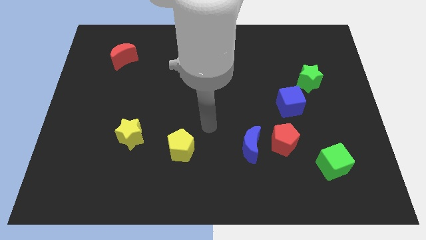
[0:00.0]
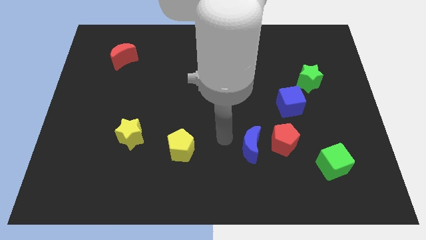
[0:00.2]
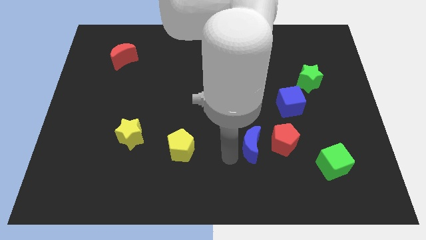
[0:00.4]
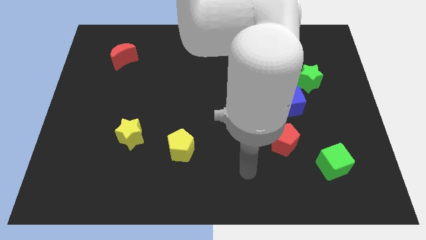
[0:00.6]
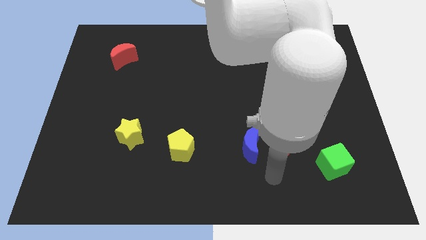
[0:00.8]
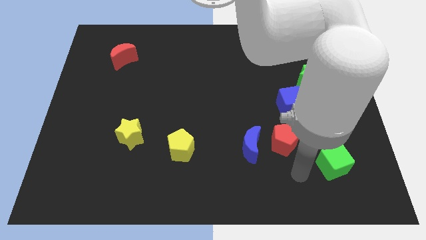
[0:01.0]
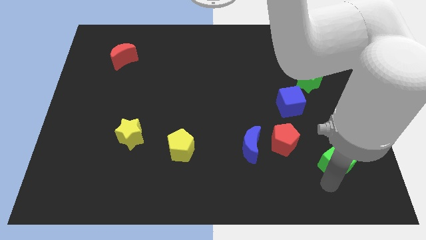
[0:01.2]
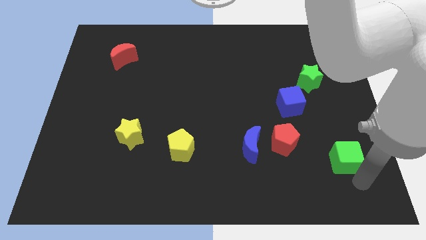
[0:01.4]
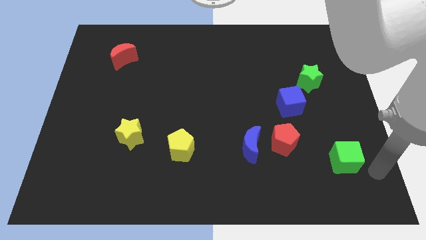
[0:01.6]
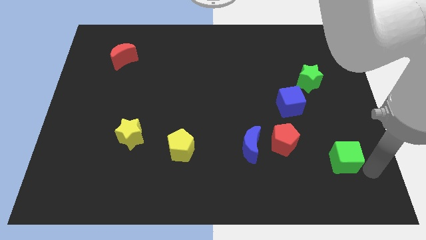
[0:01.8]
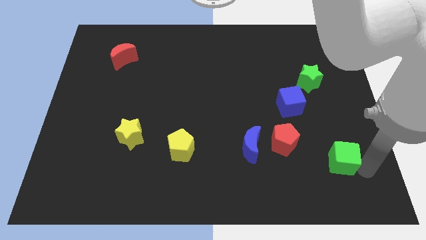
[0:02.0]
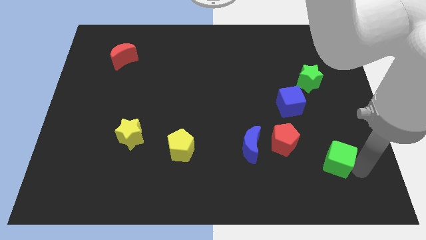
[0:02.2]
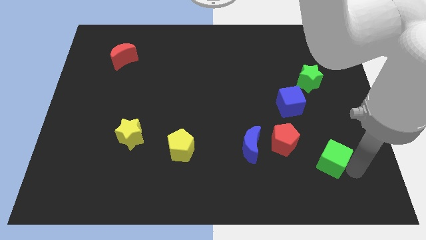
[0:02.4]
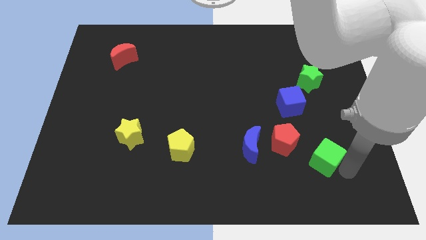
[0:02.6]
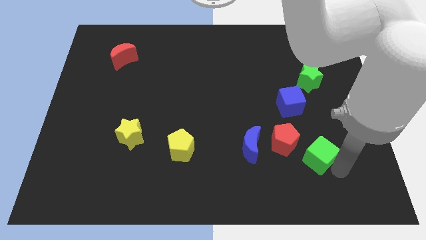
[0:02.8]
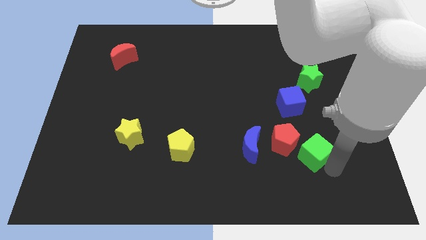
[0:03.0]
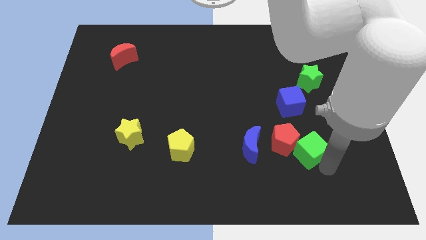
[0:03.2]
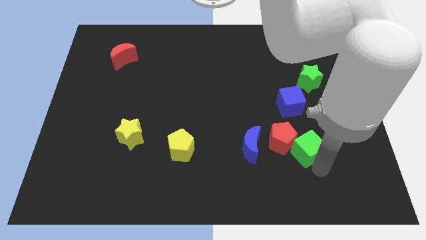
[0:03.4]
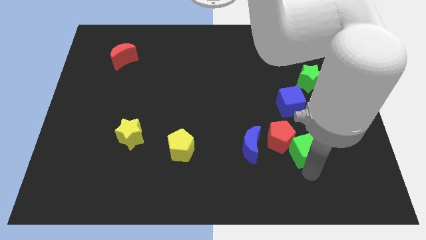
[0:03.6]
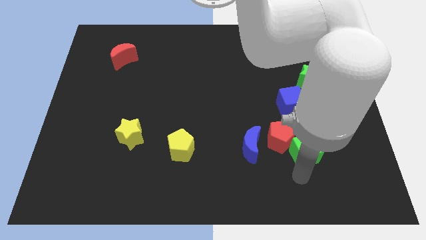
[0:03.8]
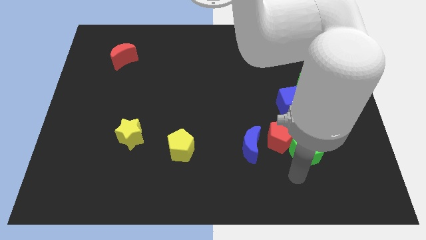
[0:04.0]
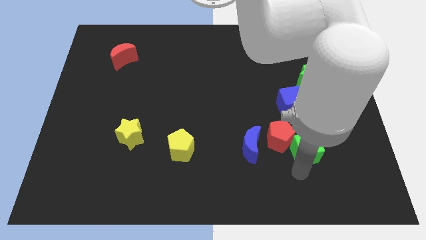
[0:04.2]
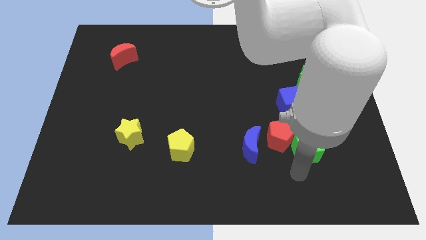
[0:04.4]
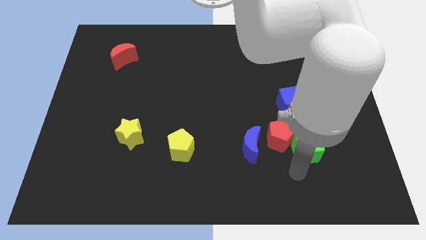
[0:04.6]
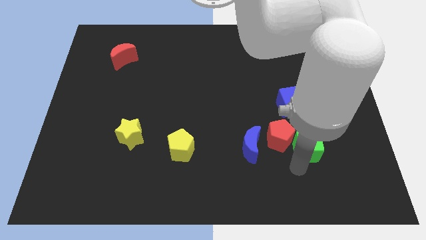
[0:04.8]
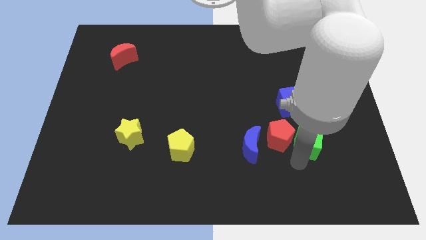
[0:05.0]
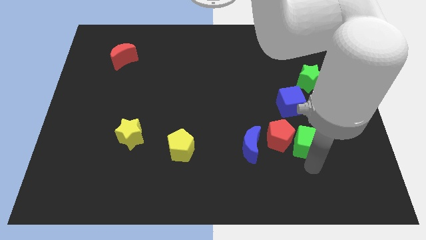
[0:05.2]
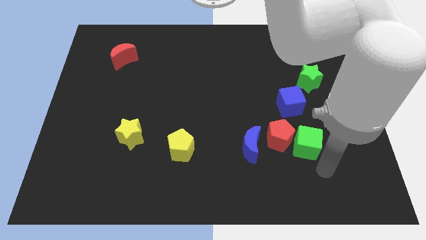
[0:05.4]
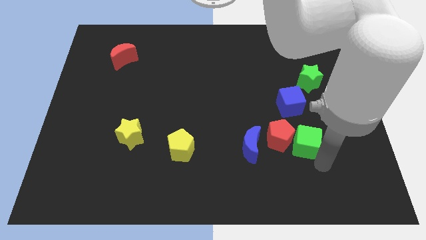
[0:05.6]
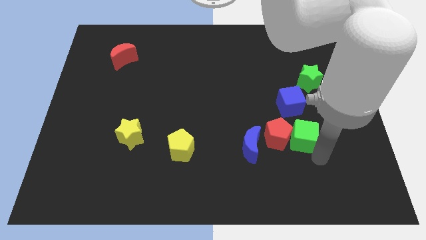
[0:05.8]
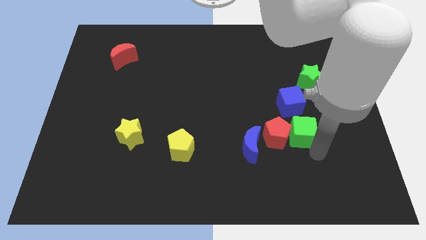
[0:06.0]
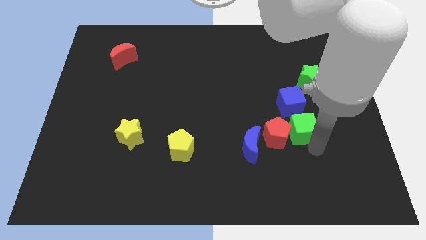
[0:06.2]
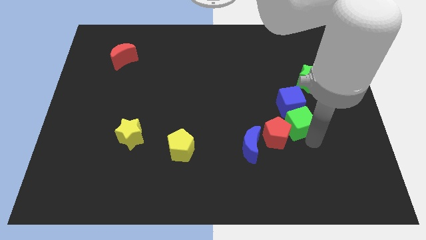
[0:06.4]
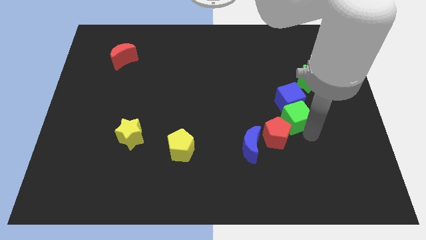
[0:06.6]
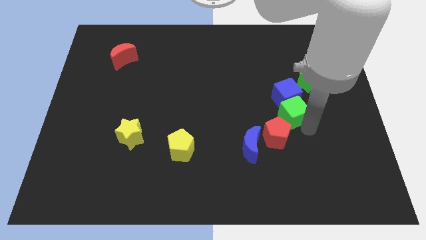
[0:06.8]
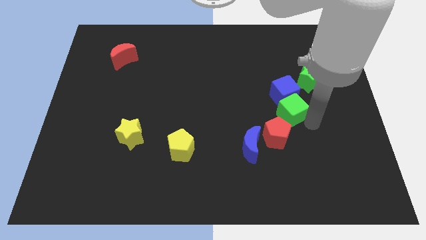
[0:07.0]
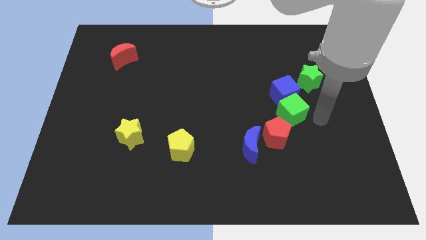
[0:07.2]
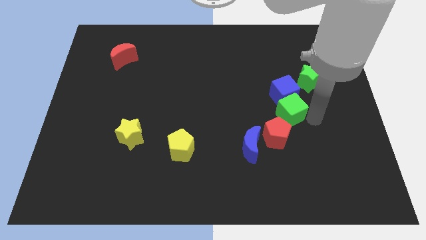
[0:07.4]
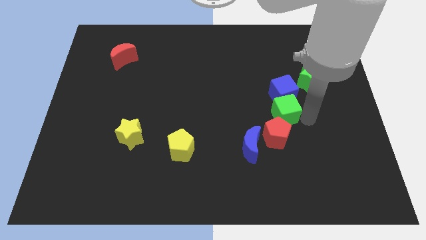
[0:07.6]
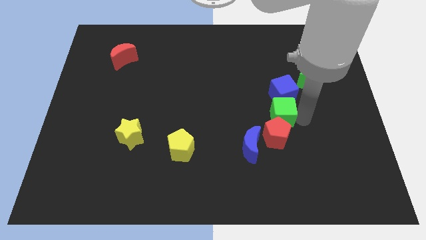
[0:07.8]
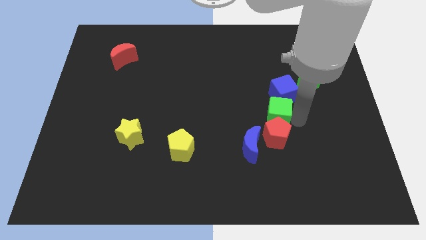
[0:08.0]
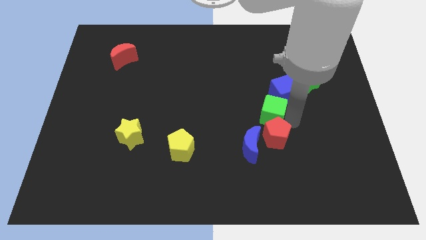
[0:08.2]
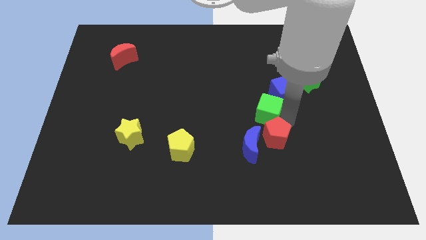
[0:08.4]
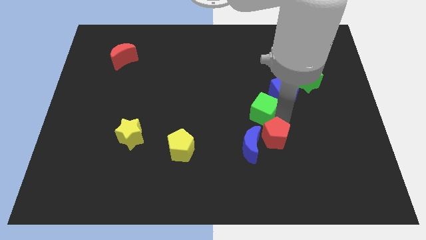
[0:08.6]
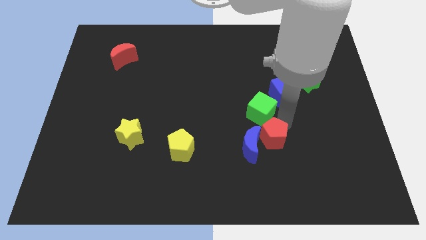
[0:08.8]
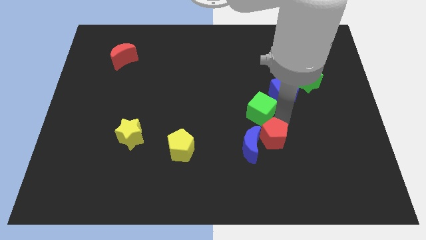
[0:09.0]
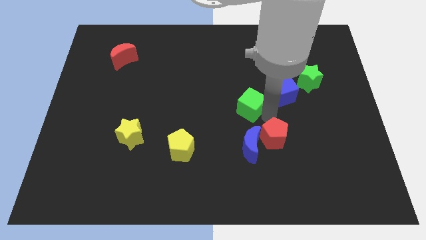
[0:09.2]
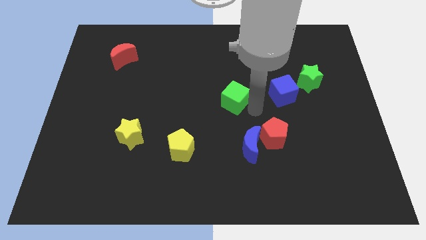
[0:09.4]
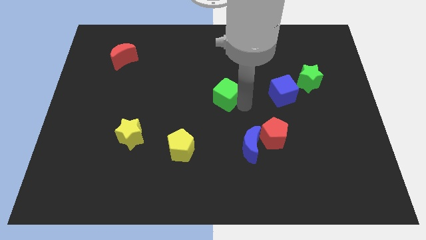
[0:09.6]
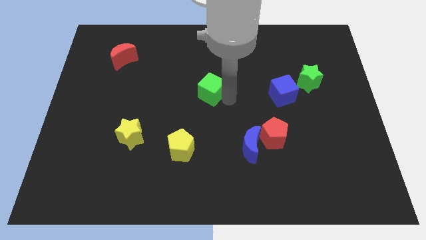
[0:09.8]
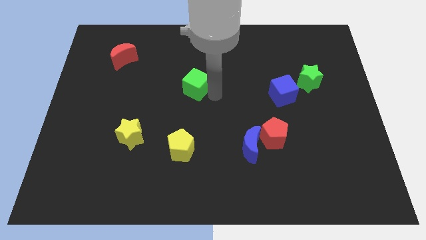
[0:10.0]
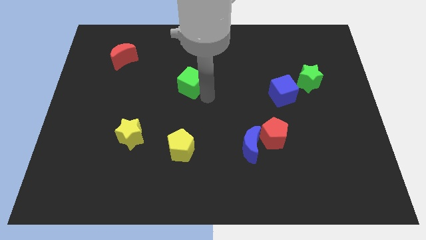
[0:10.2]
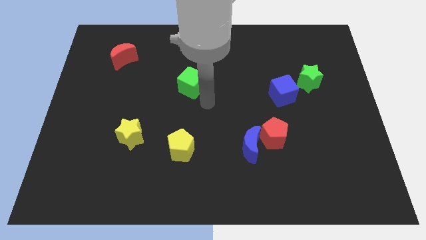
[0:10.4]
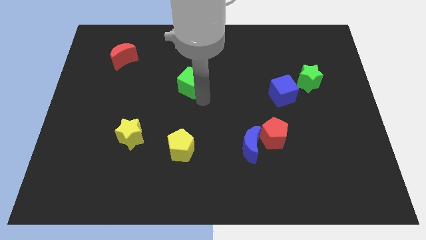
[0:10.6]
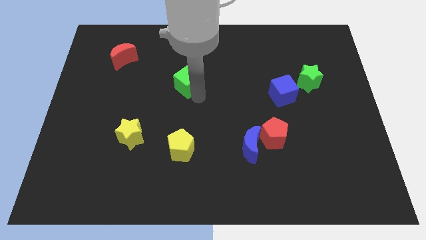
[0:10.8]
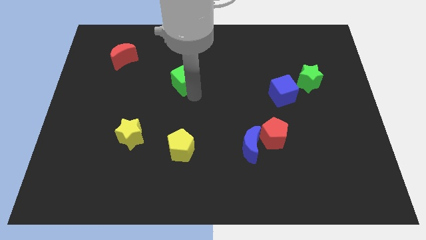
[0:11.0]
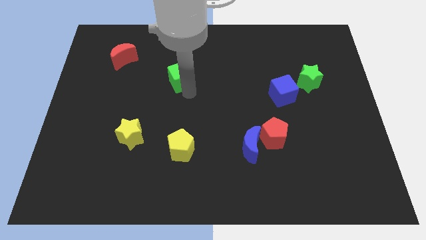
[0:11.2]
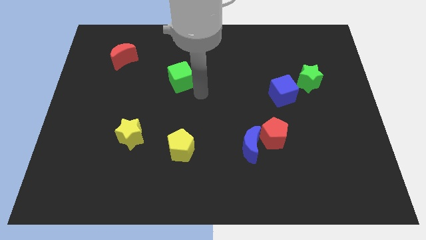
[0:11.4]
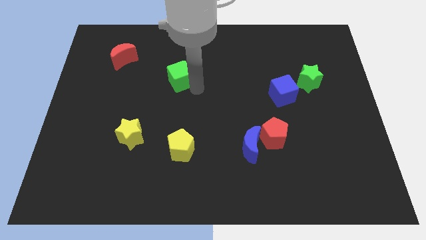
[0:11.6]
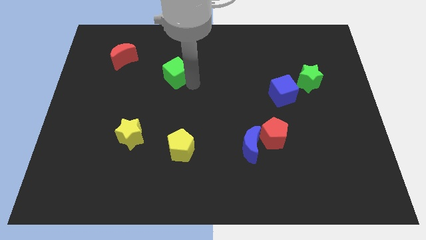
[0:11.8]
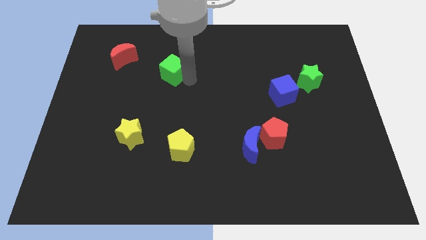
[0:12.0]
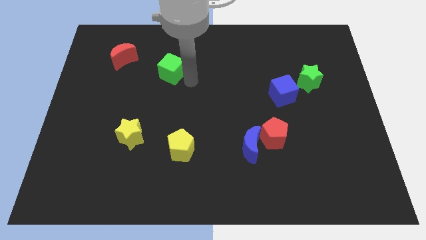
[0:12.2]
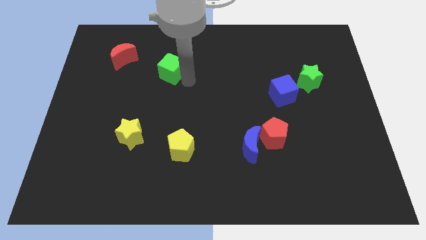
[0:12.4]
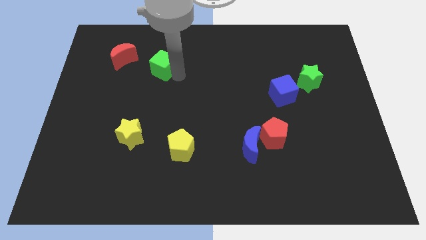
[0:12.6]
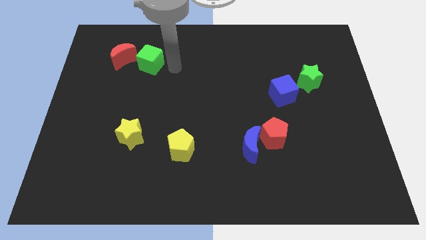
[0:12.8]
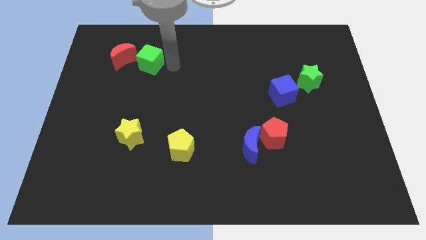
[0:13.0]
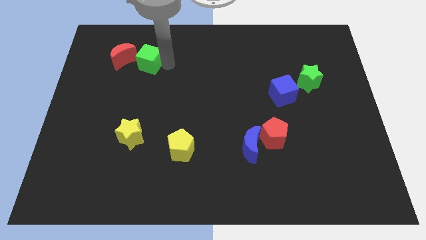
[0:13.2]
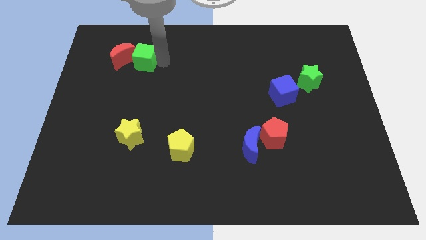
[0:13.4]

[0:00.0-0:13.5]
put the green cube to the red moon
